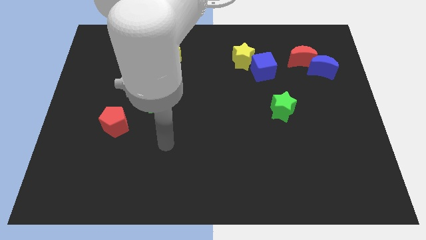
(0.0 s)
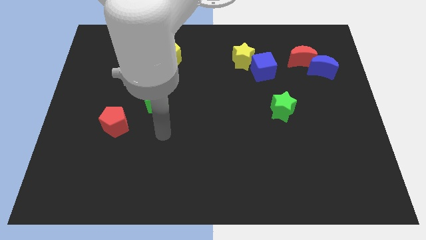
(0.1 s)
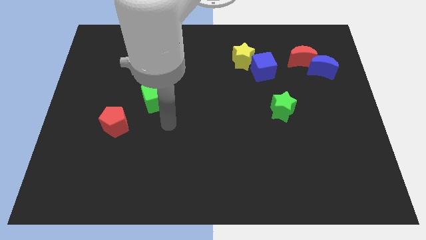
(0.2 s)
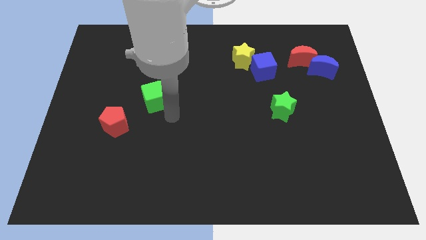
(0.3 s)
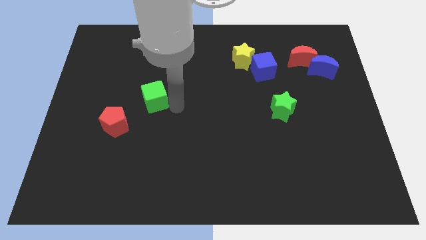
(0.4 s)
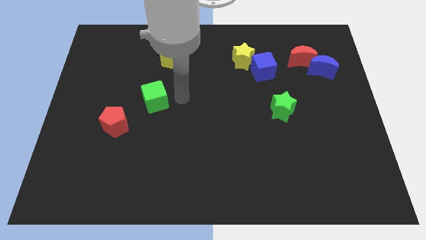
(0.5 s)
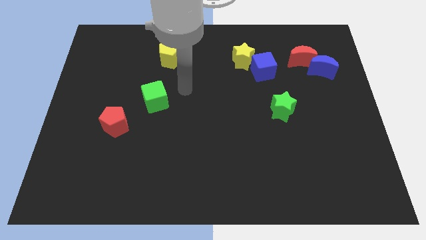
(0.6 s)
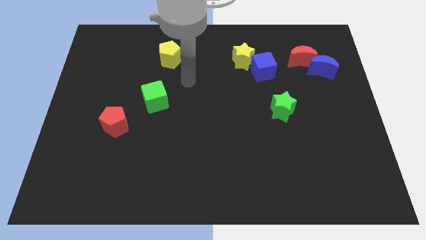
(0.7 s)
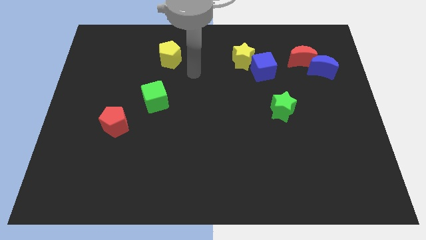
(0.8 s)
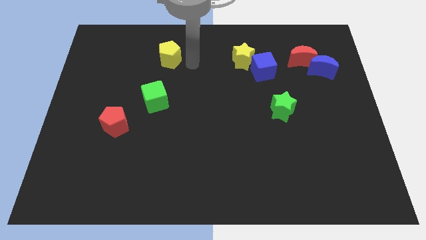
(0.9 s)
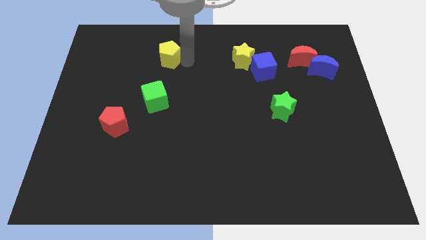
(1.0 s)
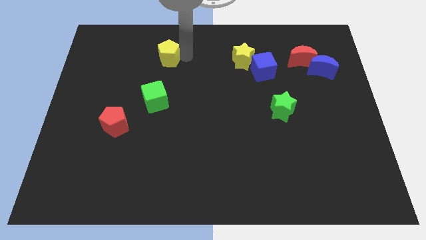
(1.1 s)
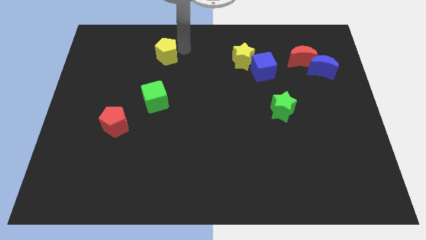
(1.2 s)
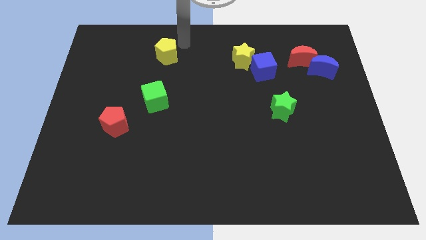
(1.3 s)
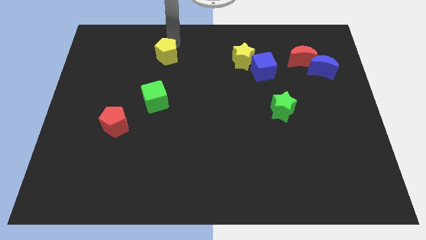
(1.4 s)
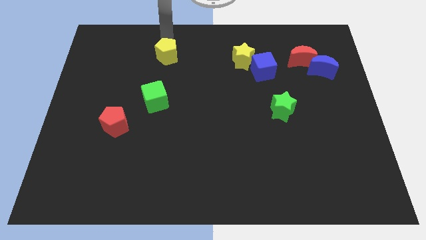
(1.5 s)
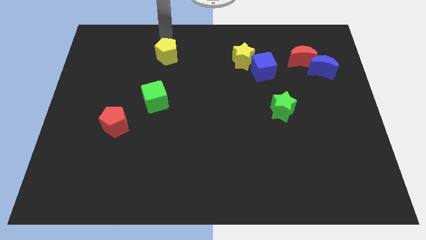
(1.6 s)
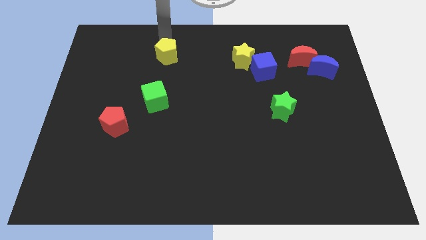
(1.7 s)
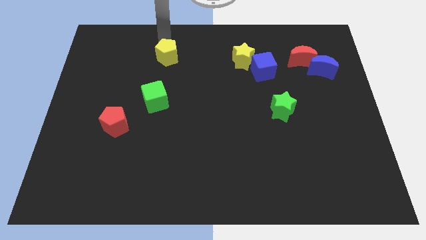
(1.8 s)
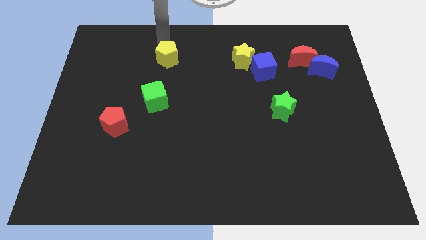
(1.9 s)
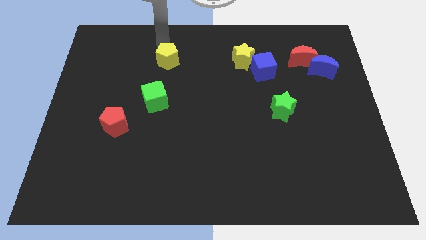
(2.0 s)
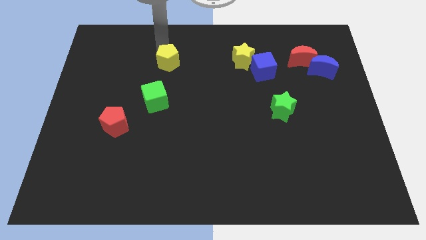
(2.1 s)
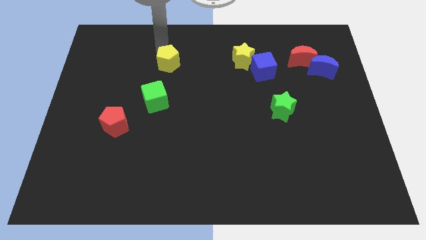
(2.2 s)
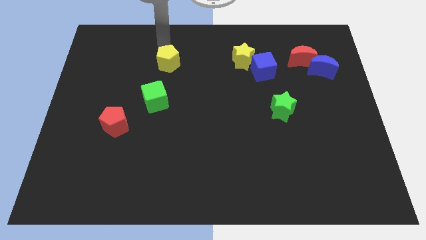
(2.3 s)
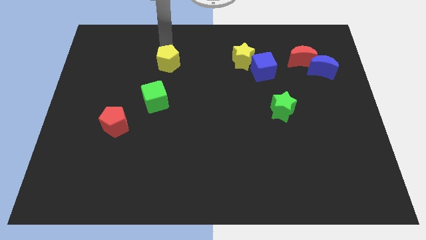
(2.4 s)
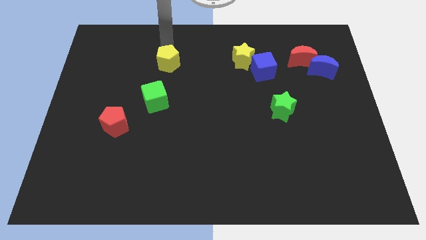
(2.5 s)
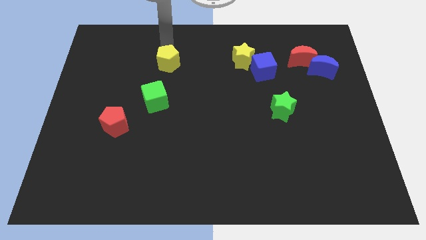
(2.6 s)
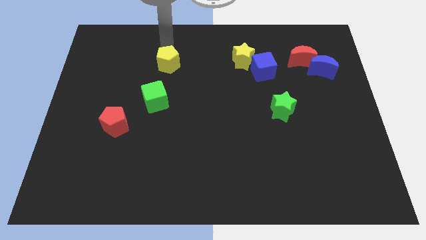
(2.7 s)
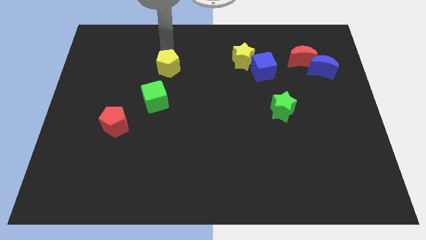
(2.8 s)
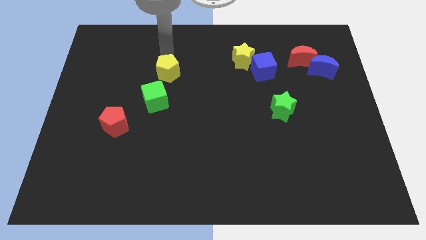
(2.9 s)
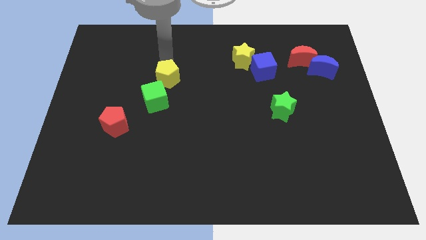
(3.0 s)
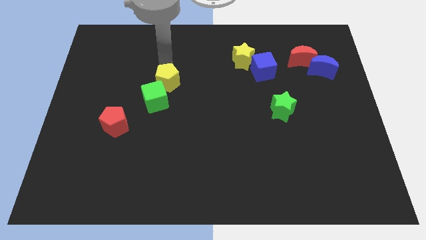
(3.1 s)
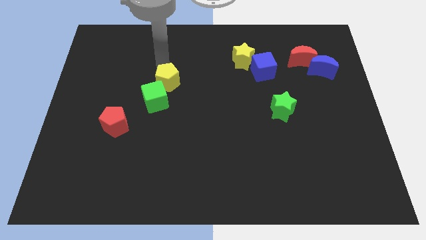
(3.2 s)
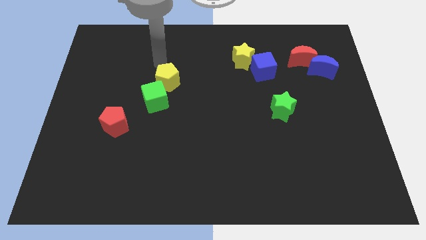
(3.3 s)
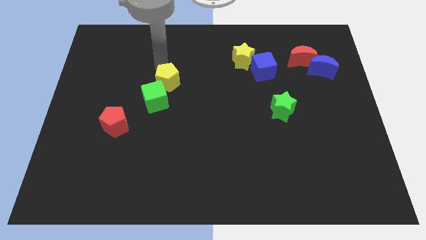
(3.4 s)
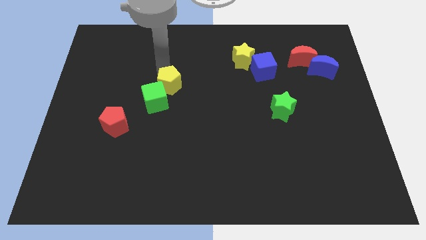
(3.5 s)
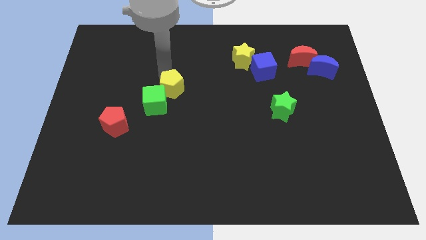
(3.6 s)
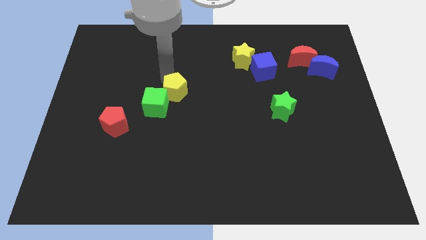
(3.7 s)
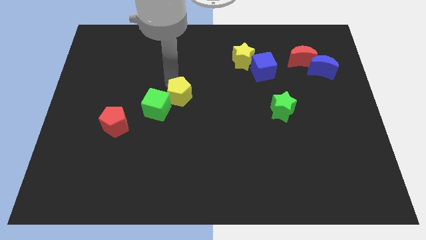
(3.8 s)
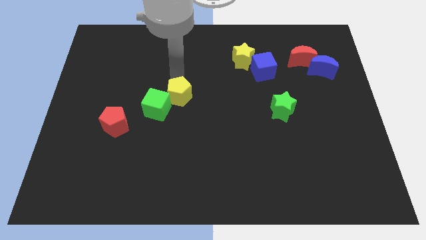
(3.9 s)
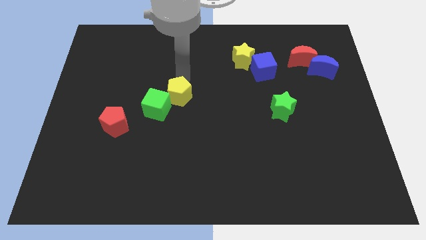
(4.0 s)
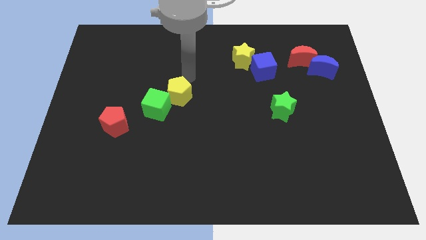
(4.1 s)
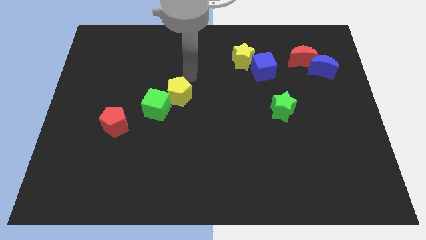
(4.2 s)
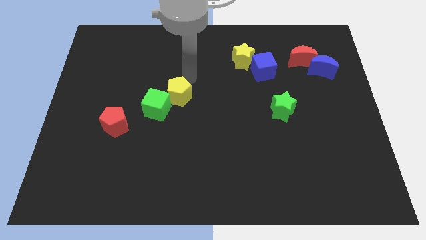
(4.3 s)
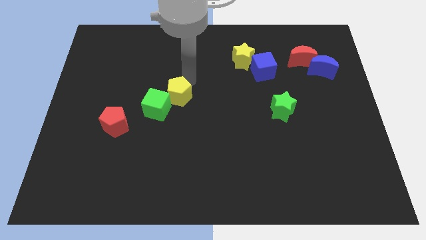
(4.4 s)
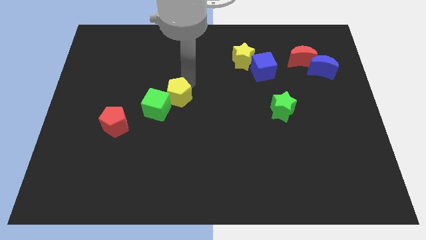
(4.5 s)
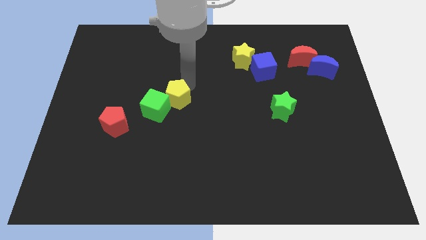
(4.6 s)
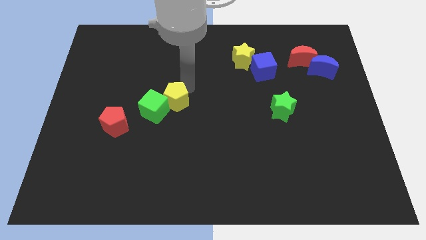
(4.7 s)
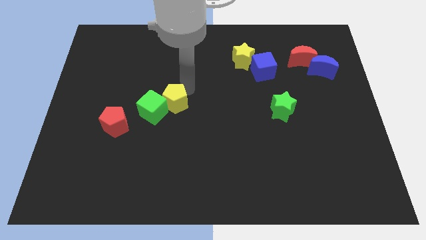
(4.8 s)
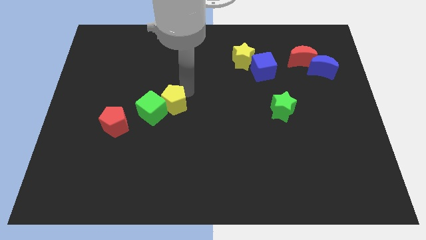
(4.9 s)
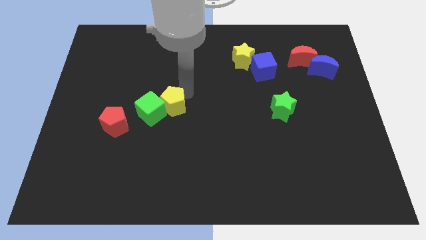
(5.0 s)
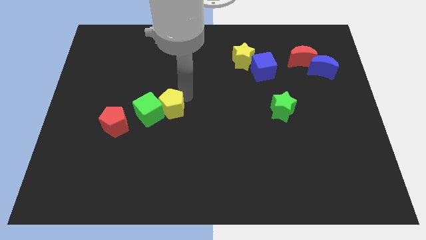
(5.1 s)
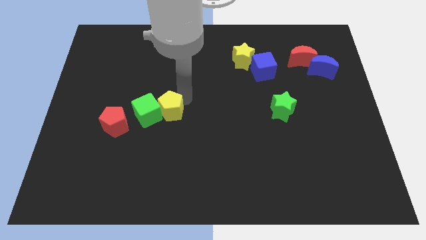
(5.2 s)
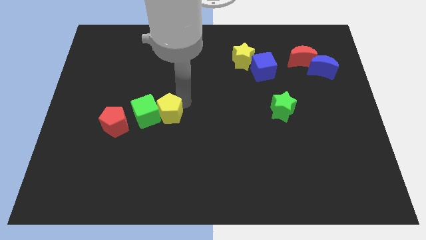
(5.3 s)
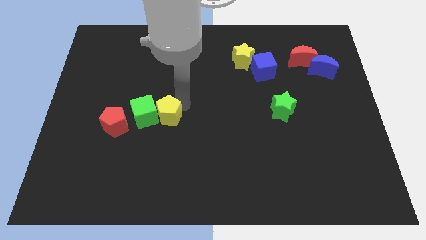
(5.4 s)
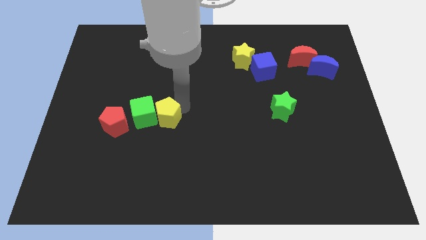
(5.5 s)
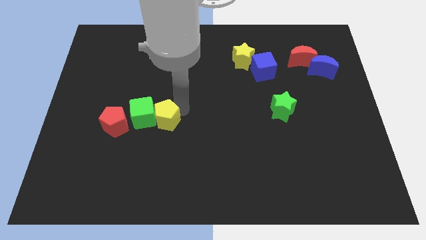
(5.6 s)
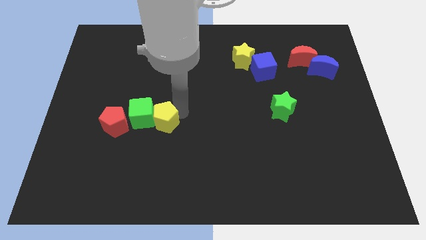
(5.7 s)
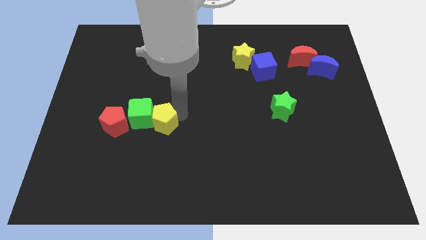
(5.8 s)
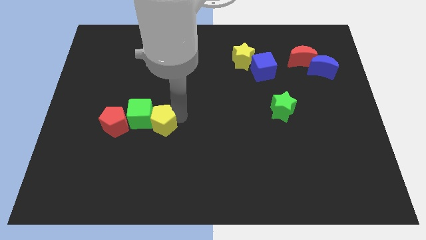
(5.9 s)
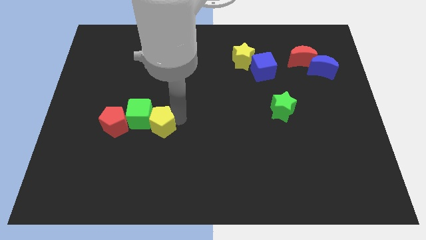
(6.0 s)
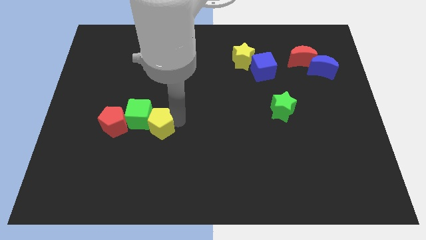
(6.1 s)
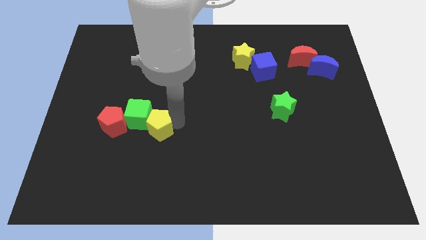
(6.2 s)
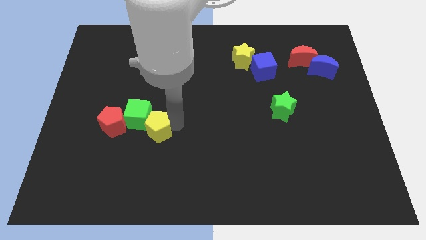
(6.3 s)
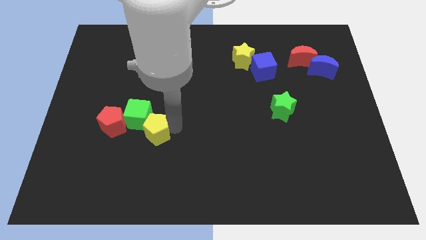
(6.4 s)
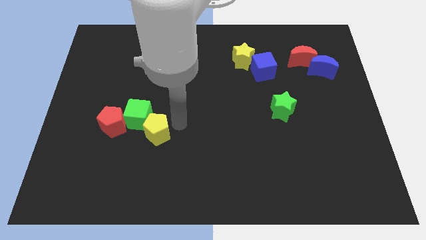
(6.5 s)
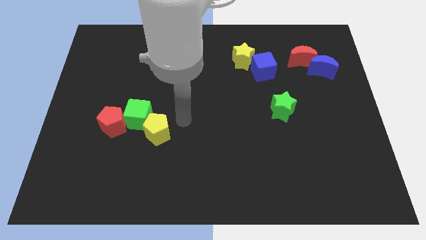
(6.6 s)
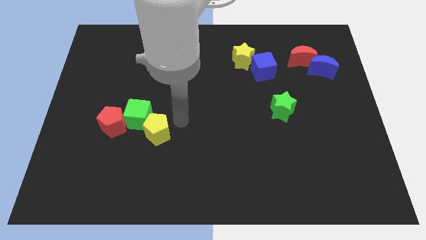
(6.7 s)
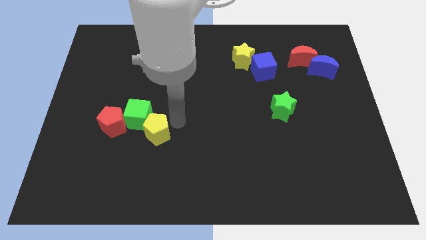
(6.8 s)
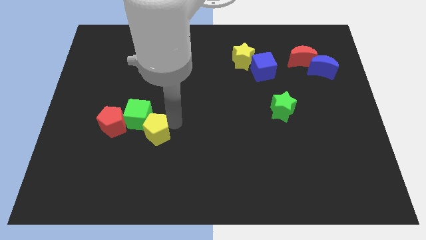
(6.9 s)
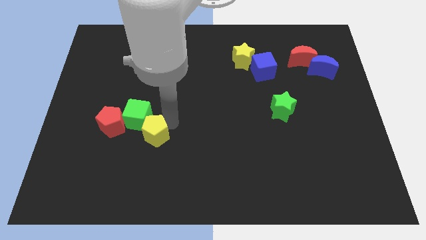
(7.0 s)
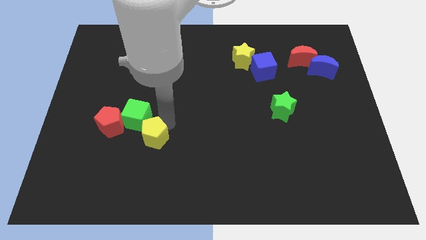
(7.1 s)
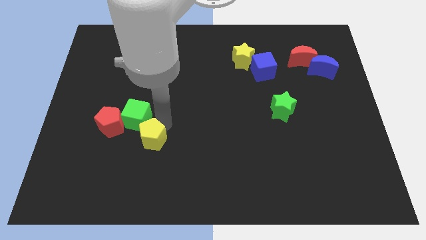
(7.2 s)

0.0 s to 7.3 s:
slide the yellow pentagon diagonally down and to the right of the red pentagon

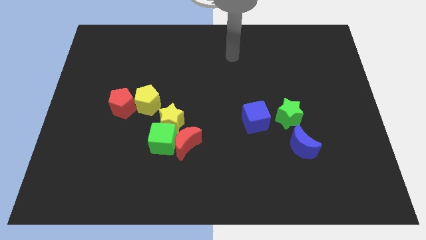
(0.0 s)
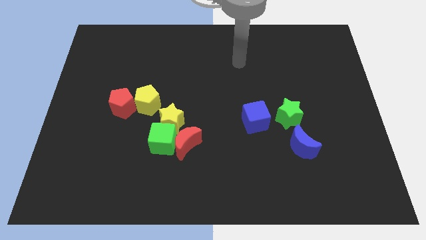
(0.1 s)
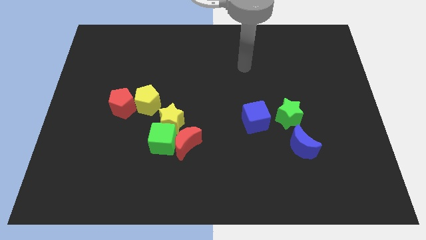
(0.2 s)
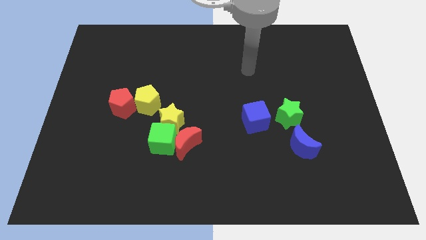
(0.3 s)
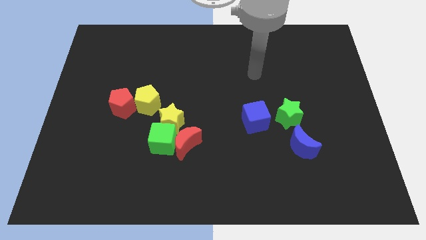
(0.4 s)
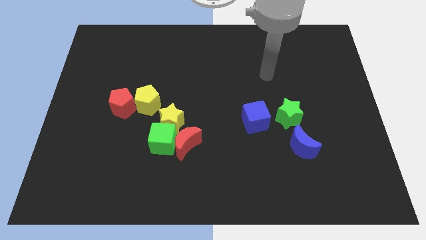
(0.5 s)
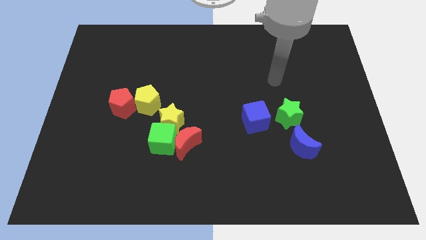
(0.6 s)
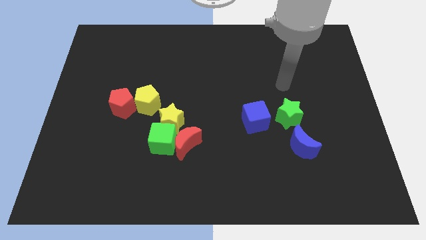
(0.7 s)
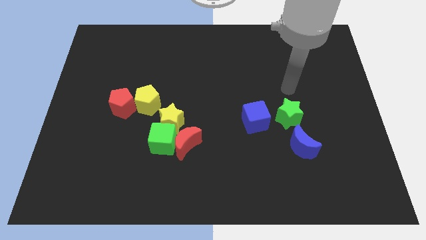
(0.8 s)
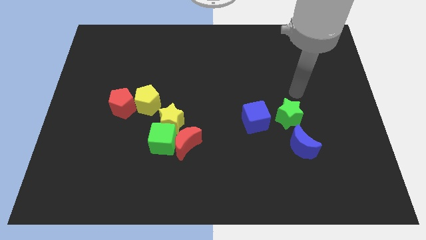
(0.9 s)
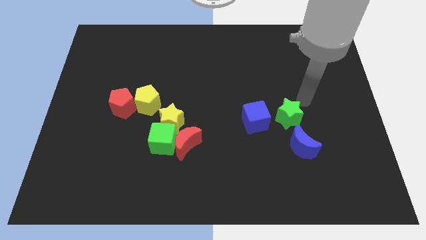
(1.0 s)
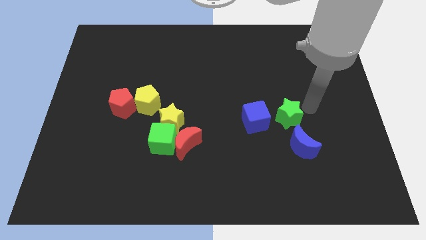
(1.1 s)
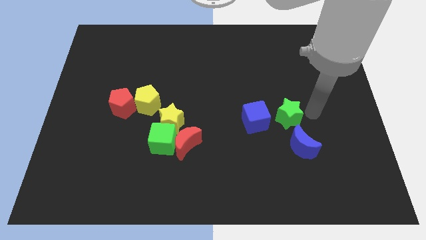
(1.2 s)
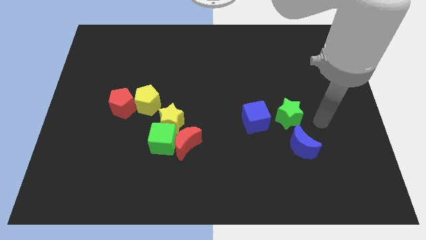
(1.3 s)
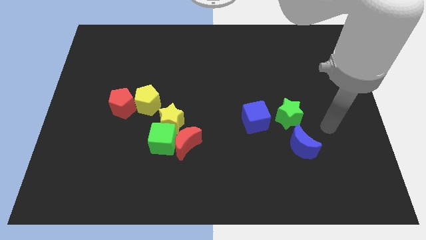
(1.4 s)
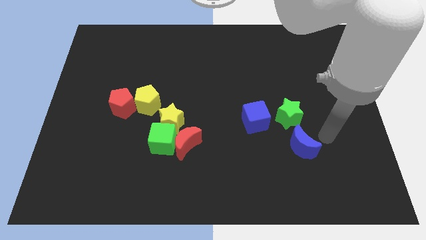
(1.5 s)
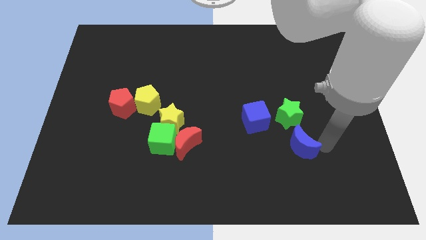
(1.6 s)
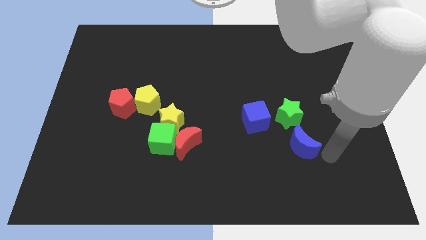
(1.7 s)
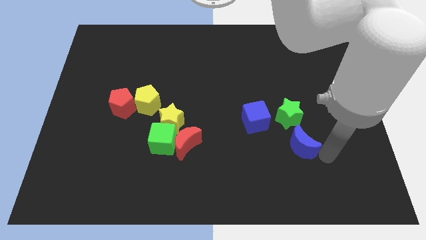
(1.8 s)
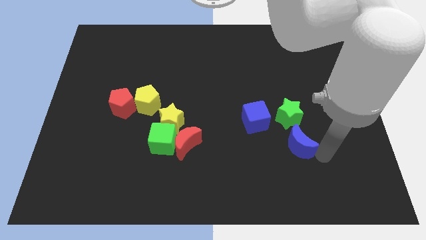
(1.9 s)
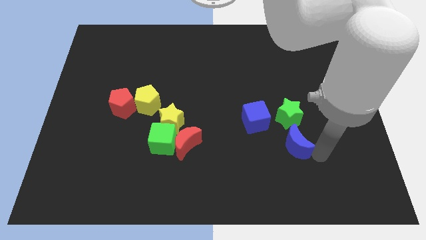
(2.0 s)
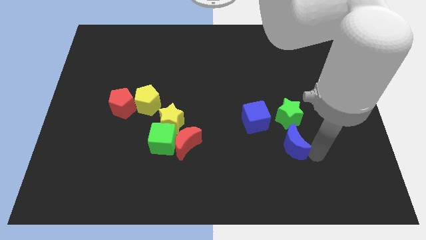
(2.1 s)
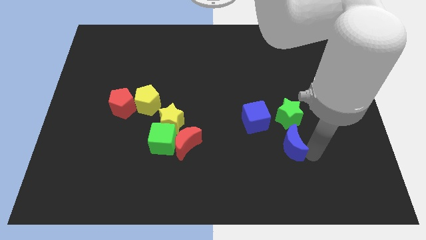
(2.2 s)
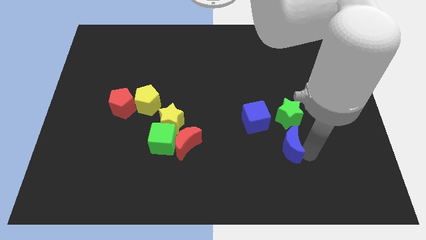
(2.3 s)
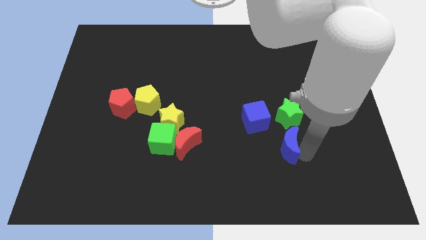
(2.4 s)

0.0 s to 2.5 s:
put the blue moon diagonally down and to the left of the green star
